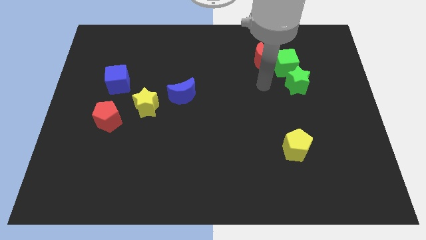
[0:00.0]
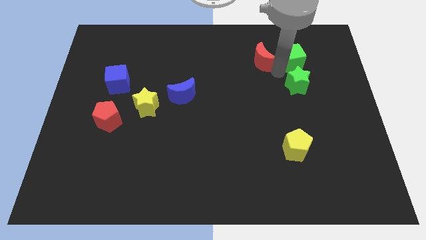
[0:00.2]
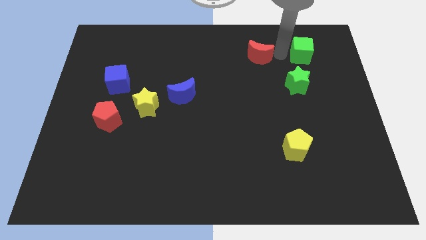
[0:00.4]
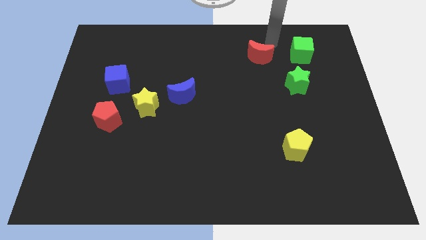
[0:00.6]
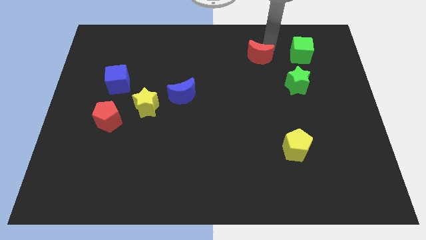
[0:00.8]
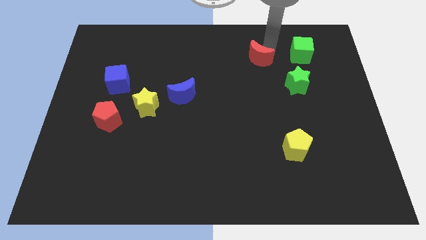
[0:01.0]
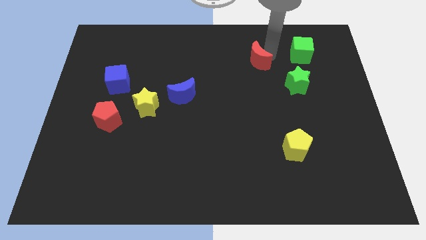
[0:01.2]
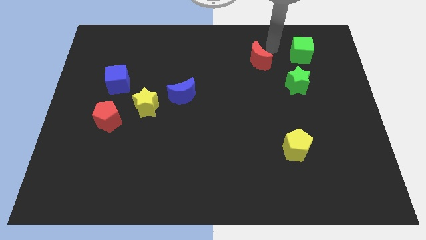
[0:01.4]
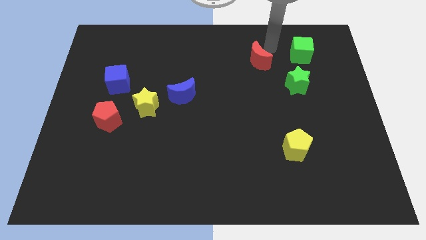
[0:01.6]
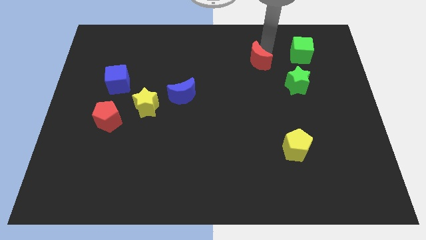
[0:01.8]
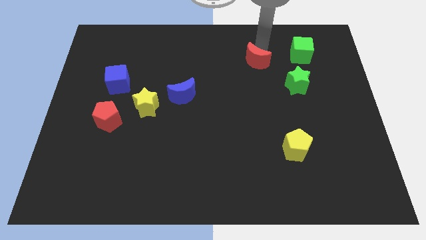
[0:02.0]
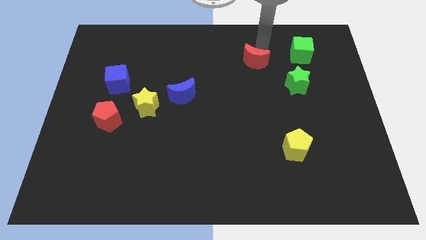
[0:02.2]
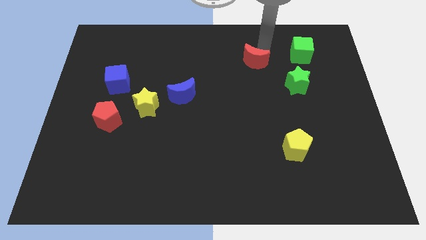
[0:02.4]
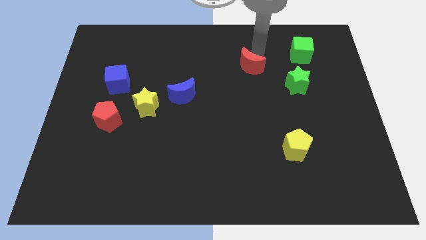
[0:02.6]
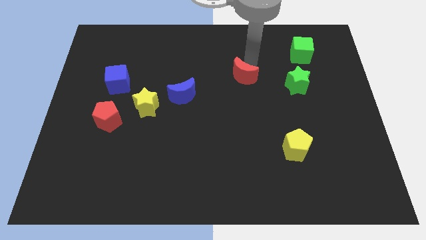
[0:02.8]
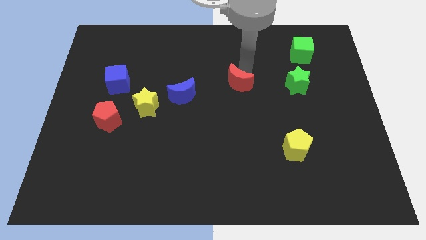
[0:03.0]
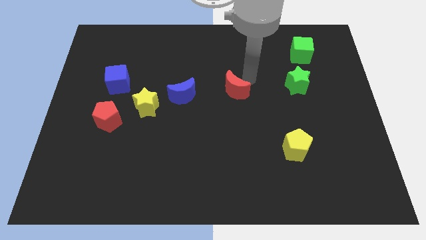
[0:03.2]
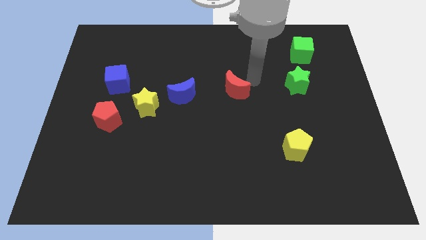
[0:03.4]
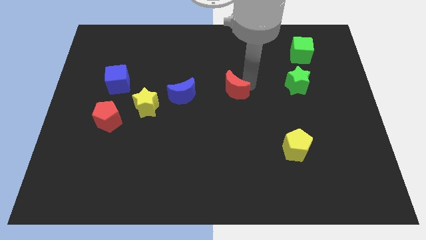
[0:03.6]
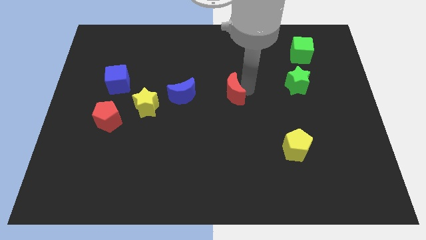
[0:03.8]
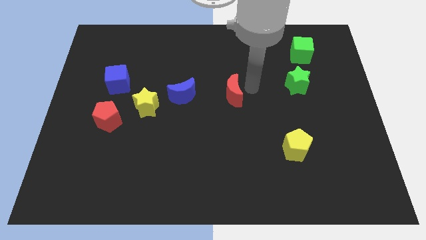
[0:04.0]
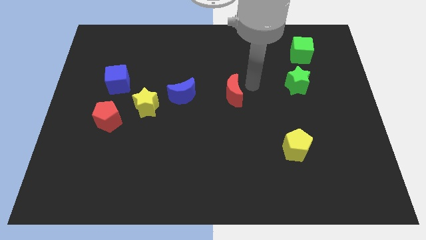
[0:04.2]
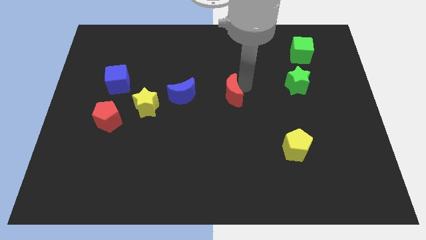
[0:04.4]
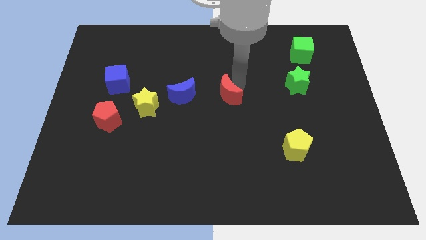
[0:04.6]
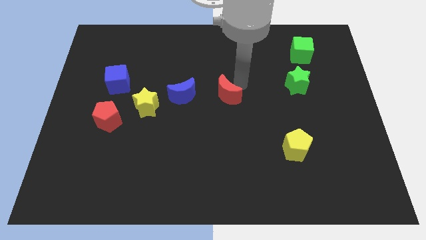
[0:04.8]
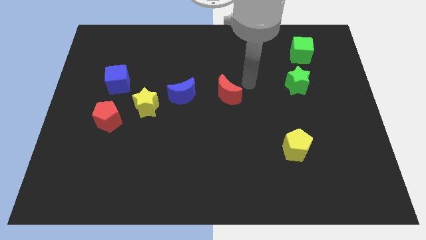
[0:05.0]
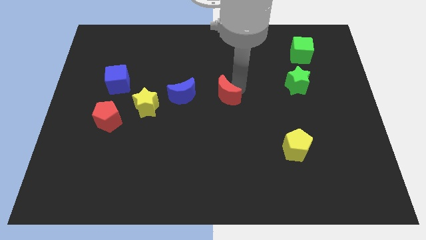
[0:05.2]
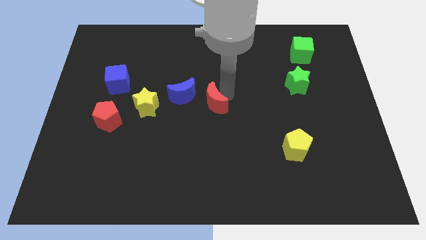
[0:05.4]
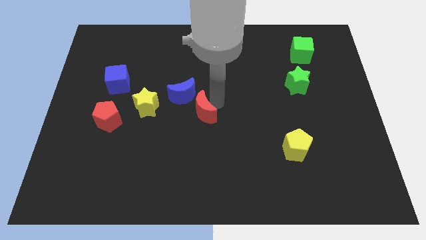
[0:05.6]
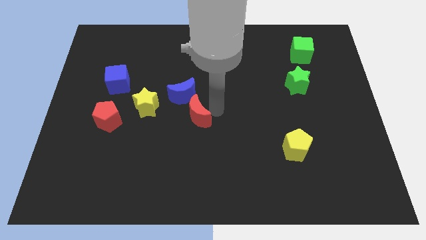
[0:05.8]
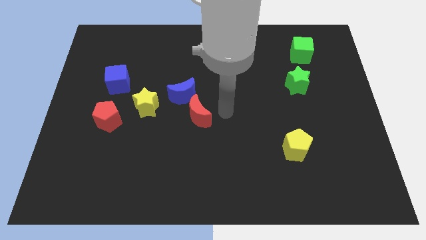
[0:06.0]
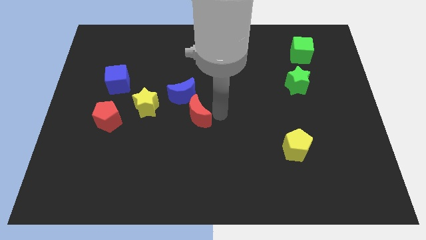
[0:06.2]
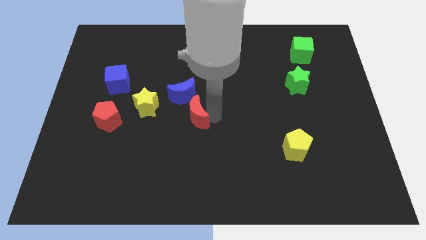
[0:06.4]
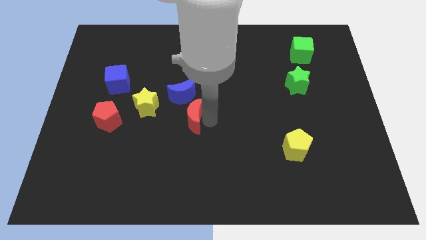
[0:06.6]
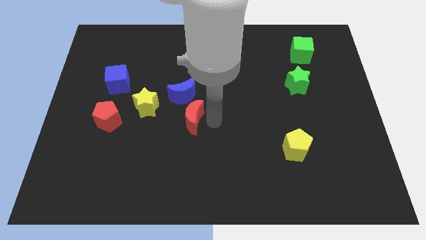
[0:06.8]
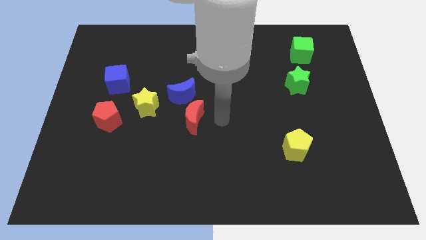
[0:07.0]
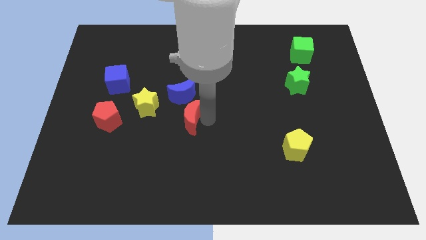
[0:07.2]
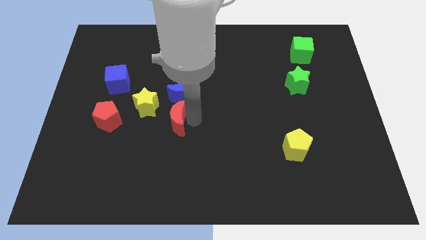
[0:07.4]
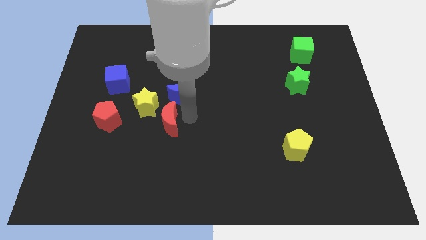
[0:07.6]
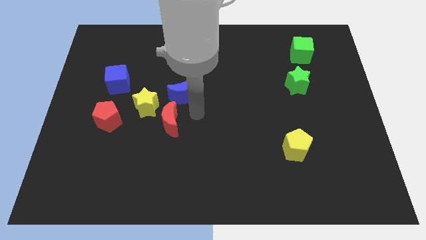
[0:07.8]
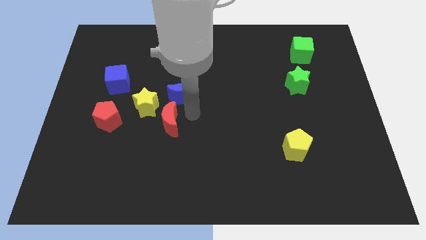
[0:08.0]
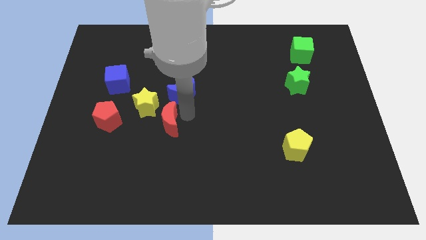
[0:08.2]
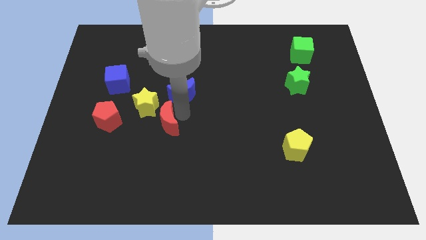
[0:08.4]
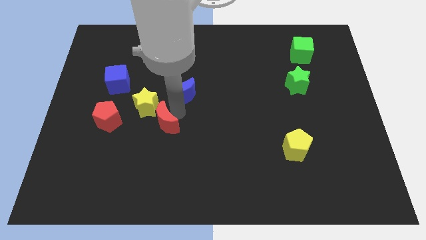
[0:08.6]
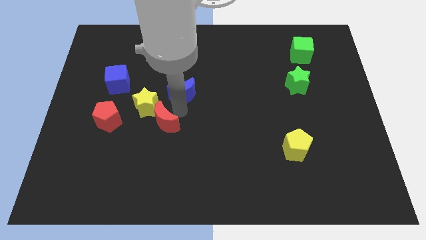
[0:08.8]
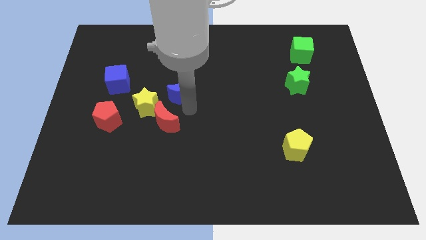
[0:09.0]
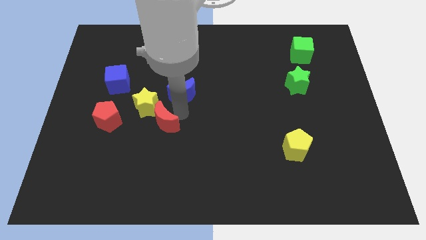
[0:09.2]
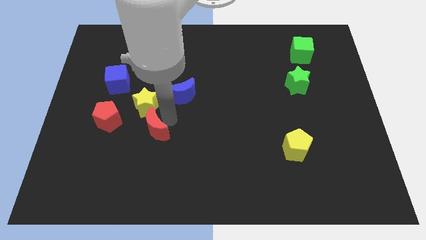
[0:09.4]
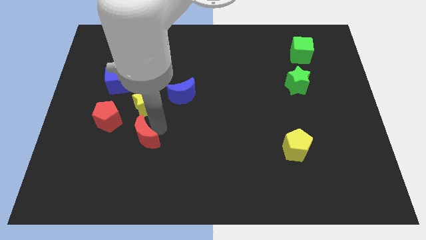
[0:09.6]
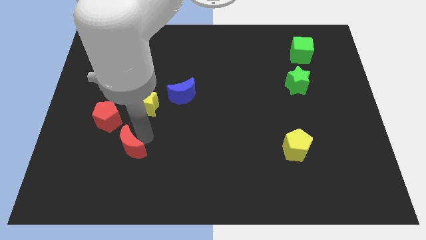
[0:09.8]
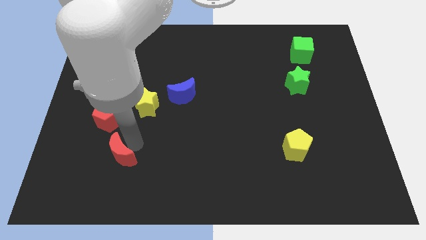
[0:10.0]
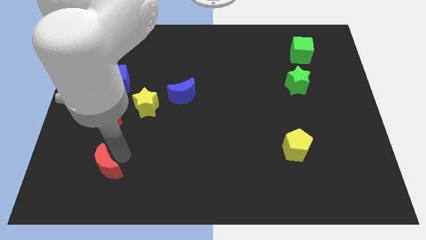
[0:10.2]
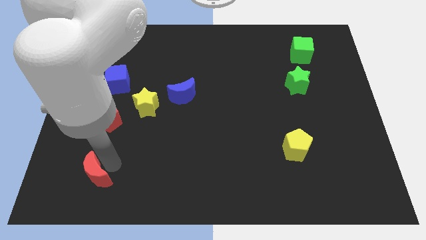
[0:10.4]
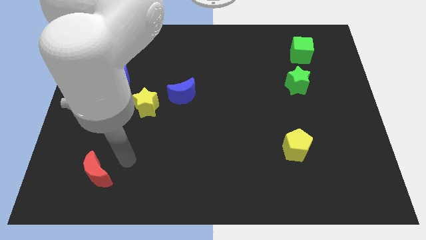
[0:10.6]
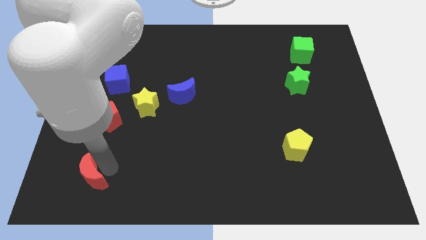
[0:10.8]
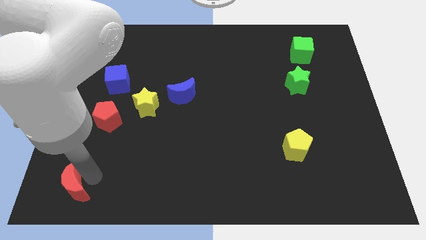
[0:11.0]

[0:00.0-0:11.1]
move the red moon to the bottom left corner

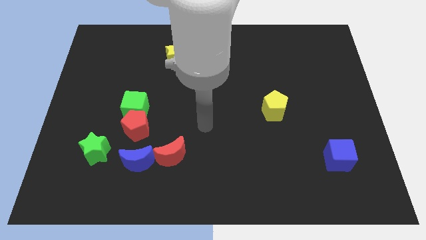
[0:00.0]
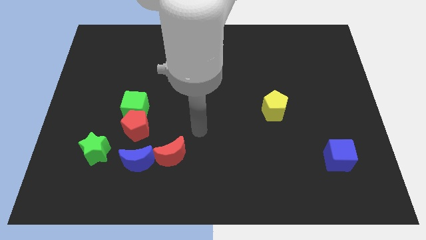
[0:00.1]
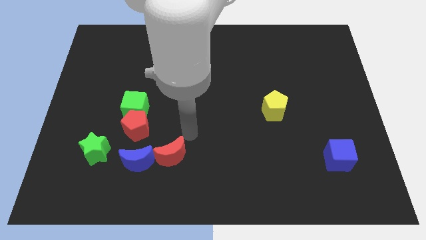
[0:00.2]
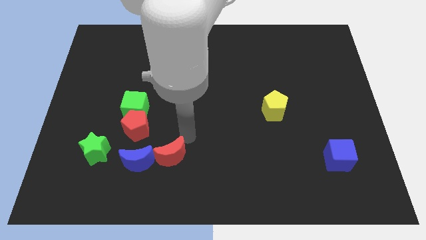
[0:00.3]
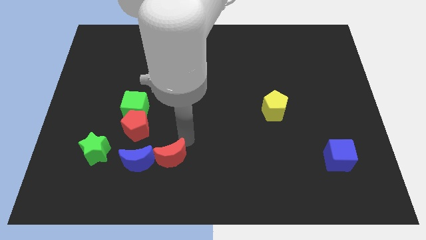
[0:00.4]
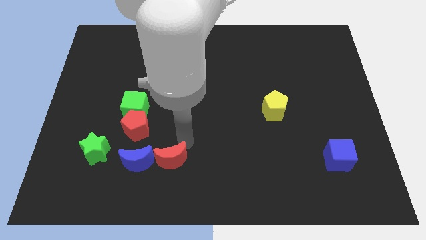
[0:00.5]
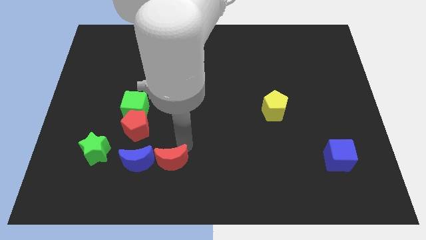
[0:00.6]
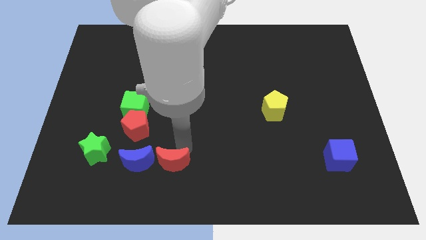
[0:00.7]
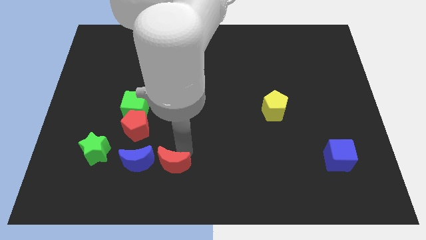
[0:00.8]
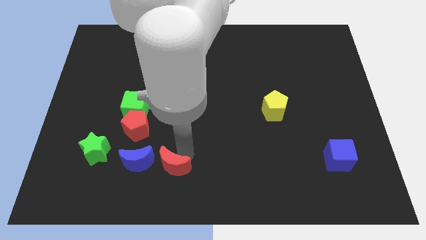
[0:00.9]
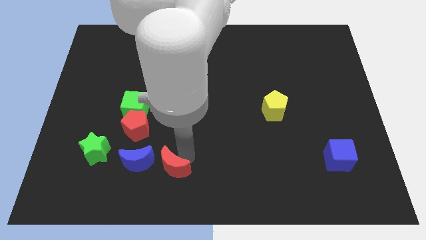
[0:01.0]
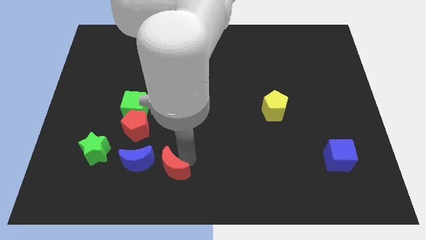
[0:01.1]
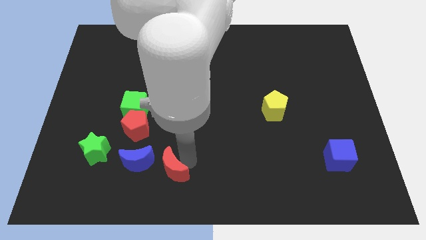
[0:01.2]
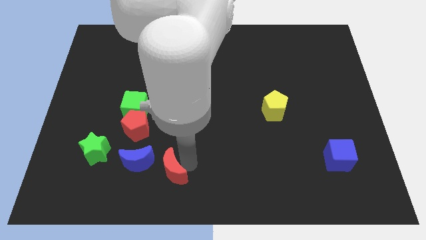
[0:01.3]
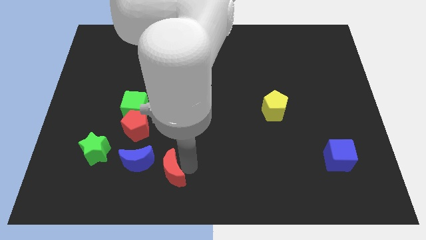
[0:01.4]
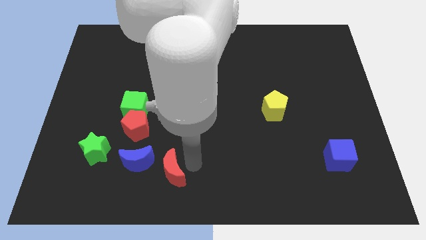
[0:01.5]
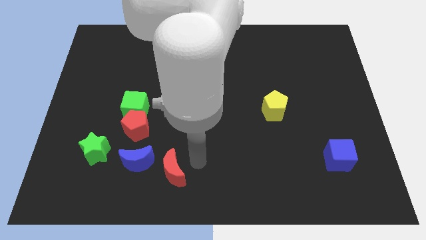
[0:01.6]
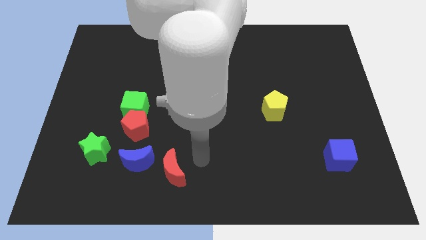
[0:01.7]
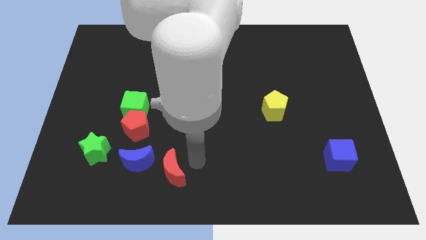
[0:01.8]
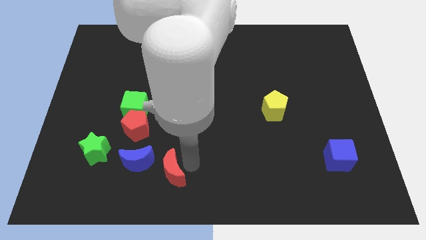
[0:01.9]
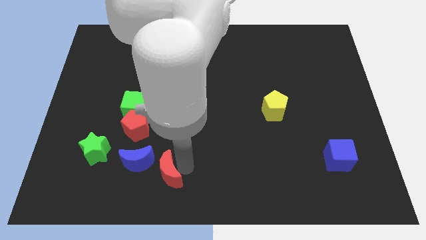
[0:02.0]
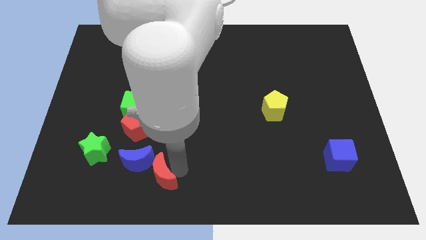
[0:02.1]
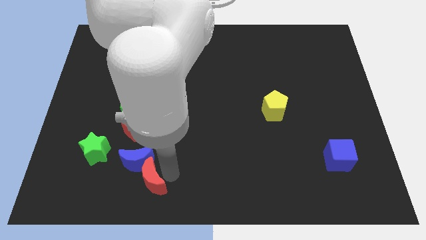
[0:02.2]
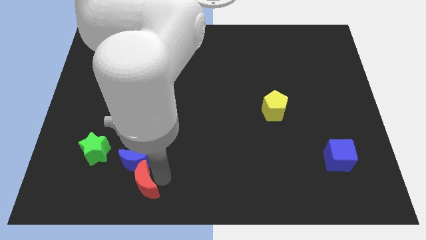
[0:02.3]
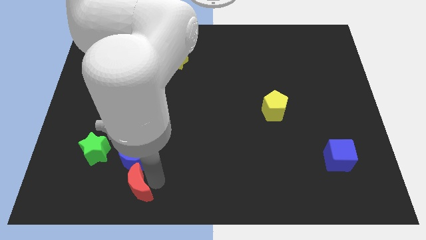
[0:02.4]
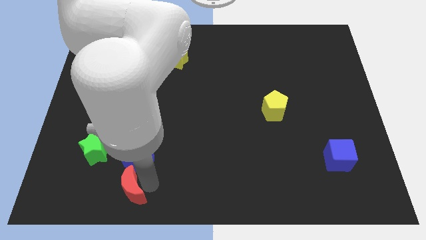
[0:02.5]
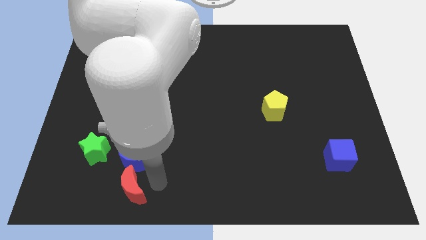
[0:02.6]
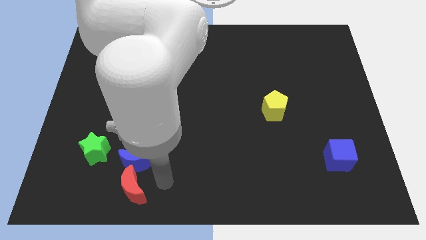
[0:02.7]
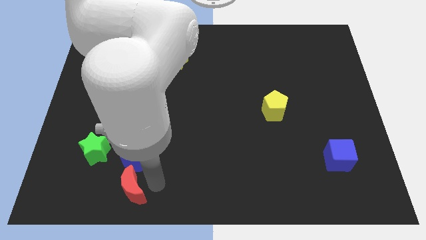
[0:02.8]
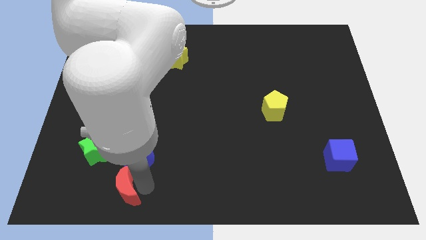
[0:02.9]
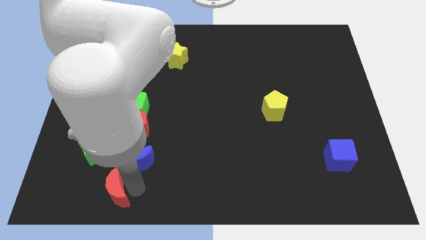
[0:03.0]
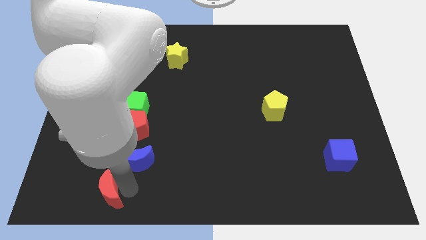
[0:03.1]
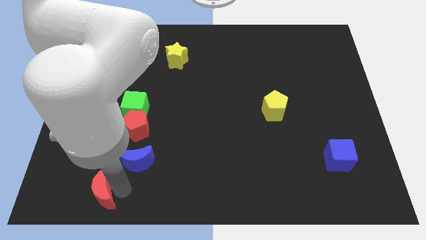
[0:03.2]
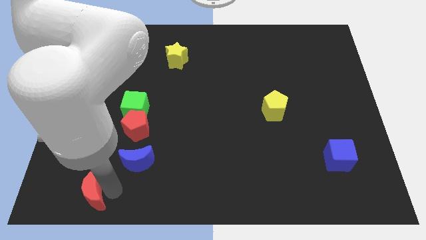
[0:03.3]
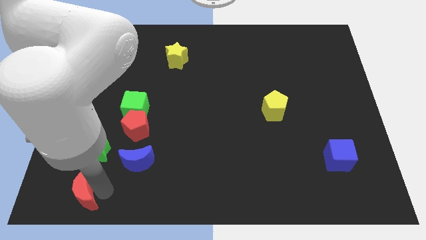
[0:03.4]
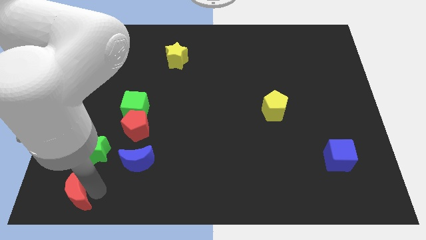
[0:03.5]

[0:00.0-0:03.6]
move the red moon to the lower left corner
